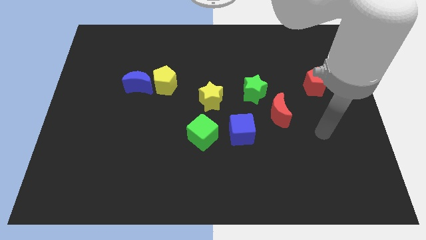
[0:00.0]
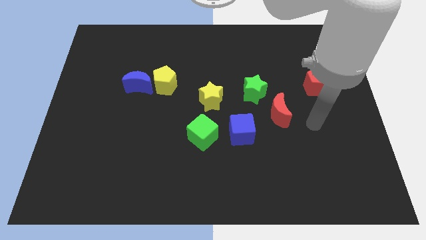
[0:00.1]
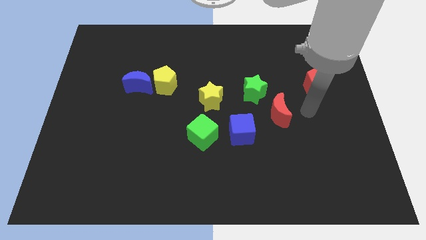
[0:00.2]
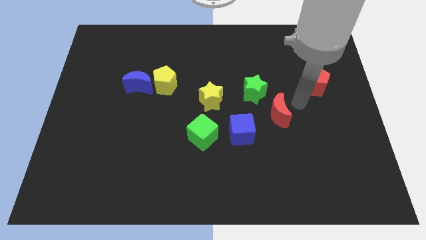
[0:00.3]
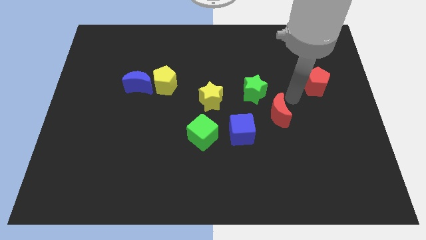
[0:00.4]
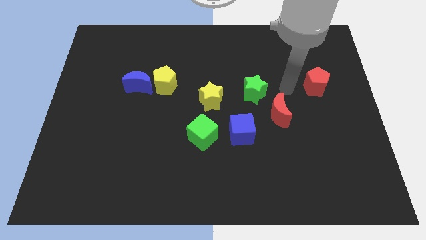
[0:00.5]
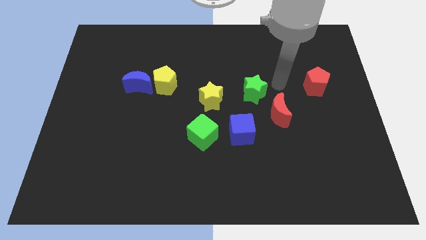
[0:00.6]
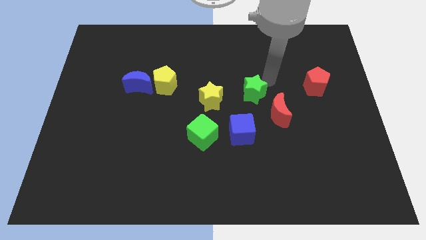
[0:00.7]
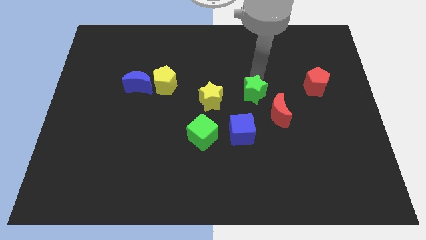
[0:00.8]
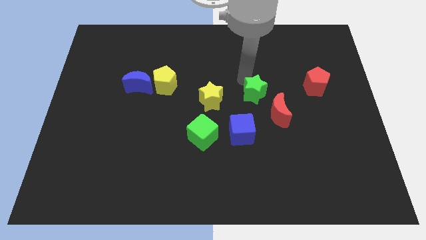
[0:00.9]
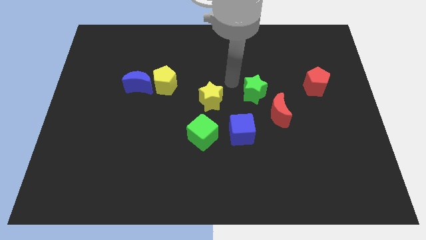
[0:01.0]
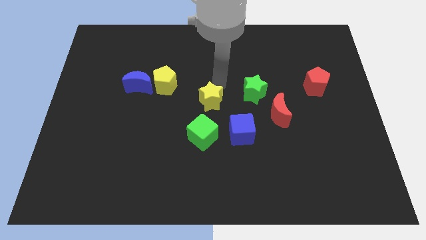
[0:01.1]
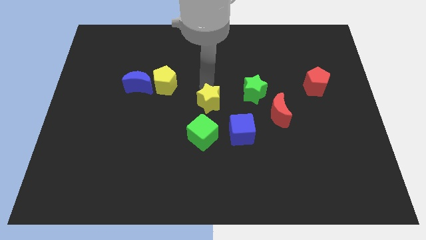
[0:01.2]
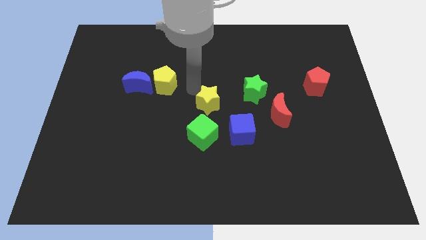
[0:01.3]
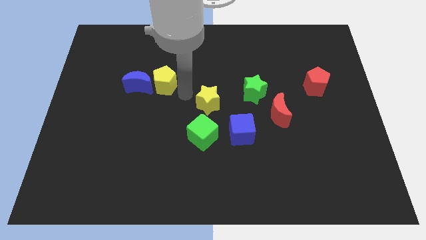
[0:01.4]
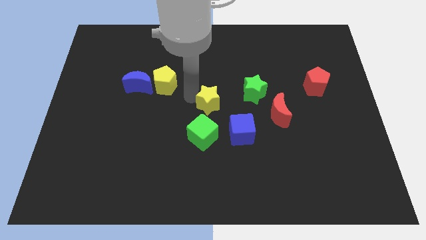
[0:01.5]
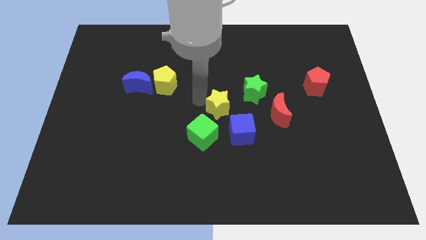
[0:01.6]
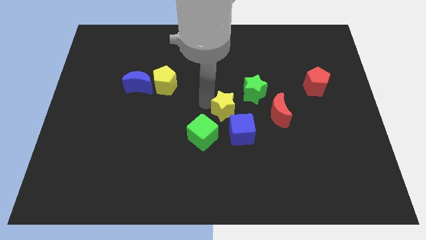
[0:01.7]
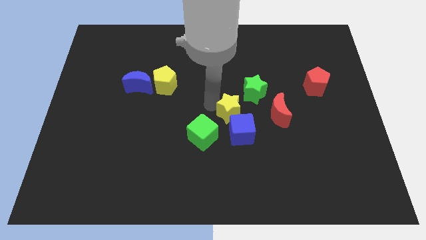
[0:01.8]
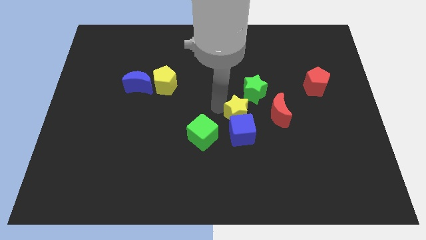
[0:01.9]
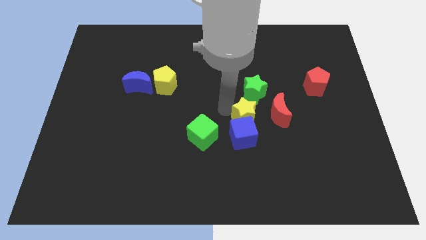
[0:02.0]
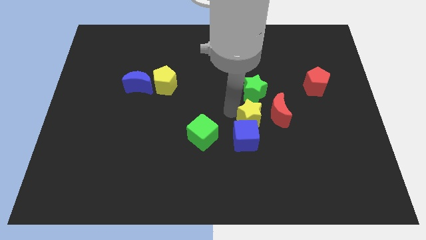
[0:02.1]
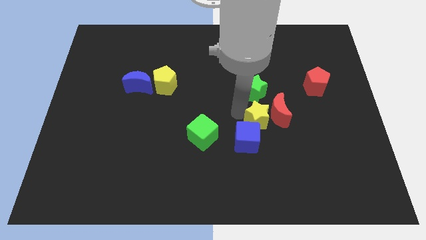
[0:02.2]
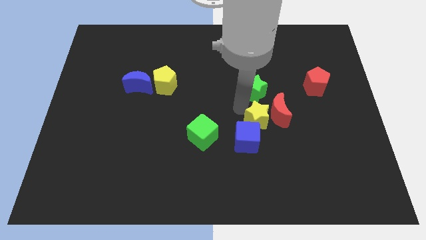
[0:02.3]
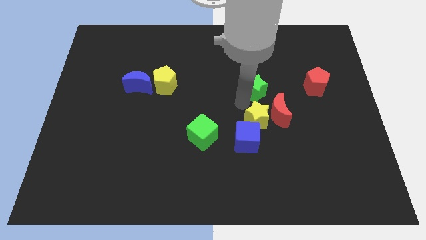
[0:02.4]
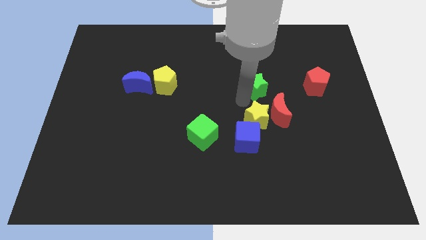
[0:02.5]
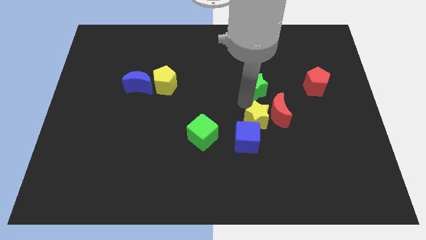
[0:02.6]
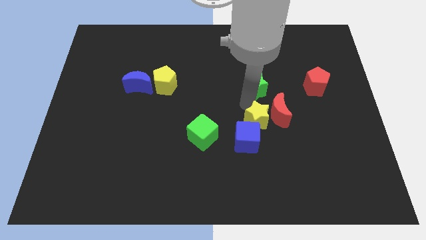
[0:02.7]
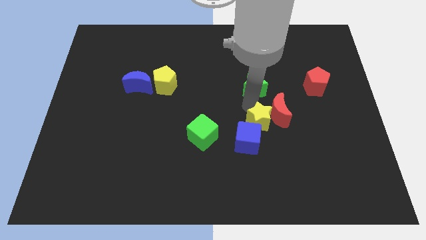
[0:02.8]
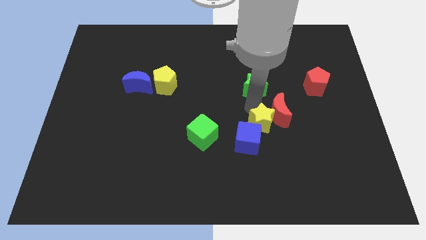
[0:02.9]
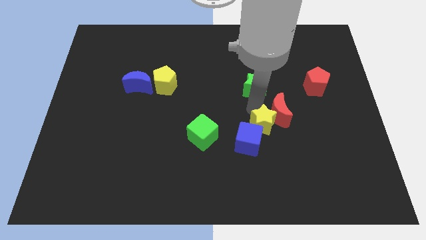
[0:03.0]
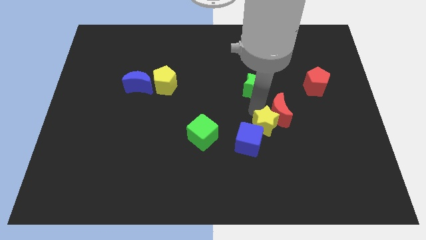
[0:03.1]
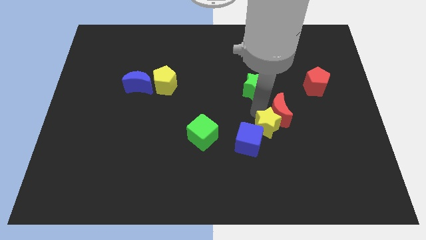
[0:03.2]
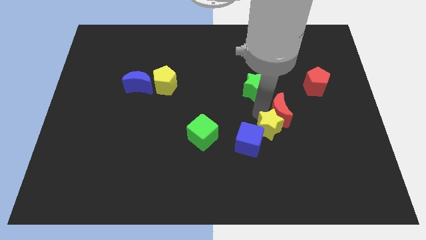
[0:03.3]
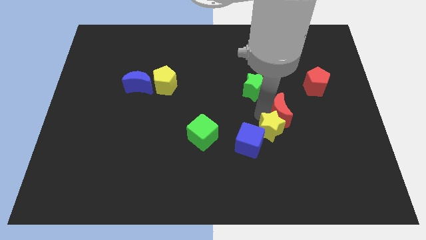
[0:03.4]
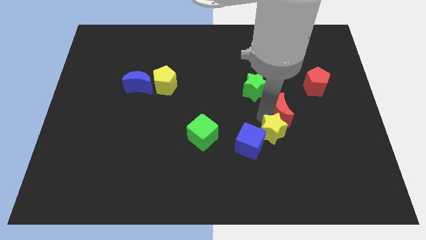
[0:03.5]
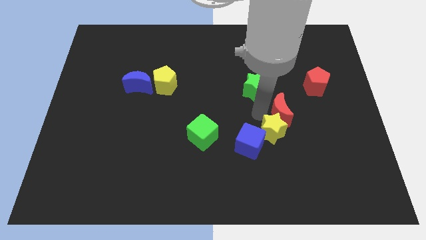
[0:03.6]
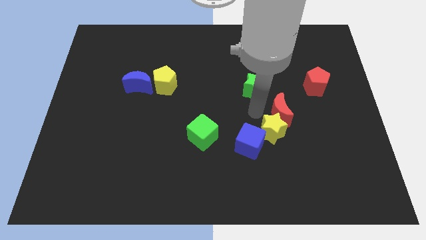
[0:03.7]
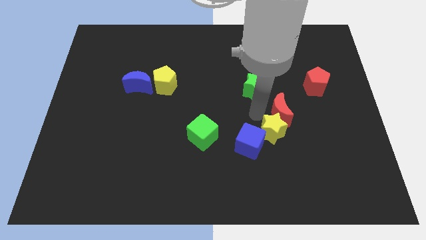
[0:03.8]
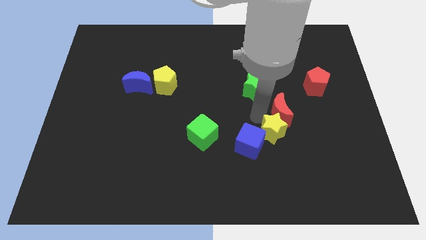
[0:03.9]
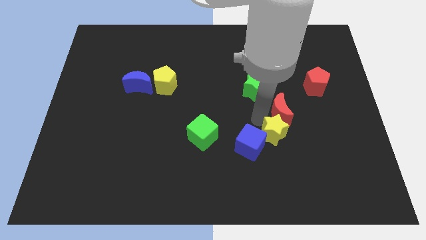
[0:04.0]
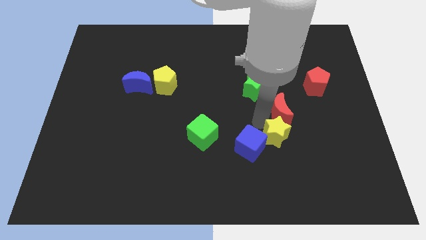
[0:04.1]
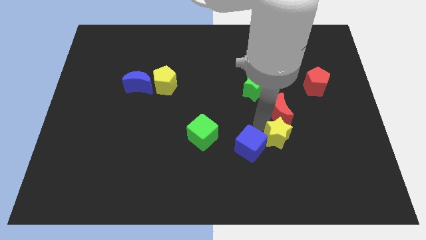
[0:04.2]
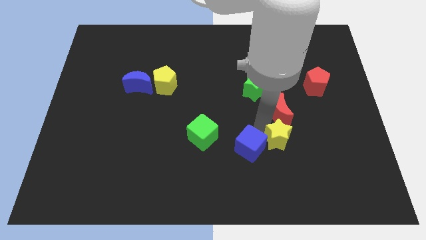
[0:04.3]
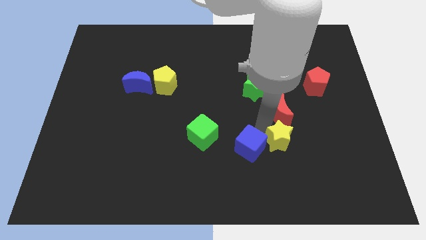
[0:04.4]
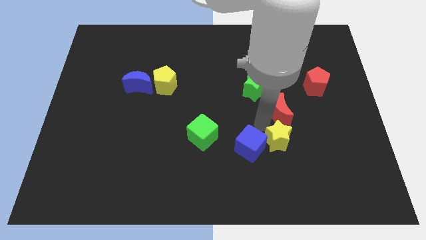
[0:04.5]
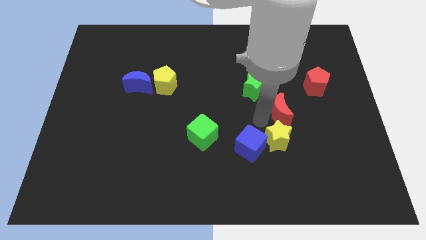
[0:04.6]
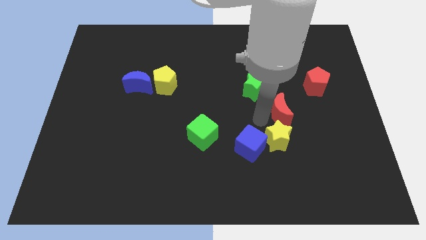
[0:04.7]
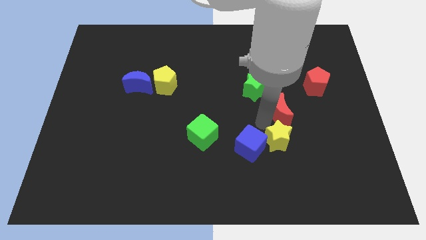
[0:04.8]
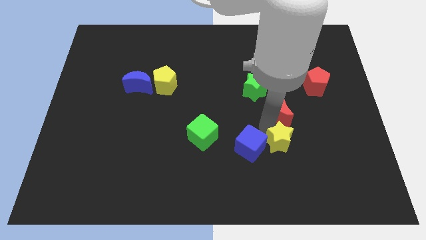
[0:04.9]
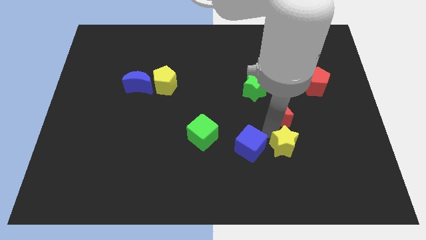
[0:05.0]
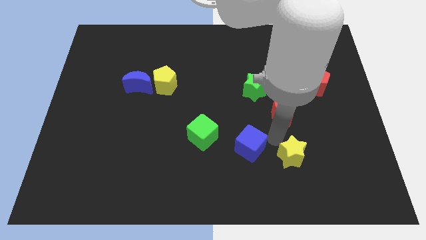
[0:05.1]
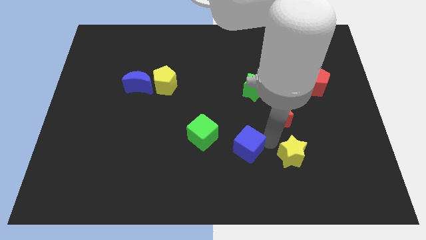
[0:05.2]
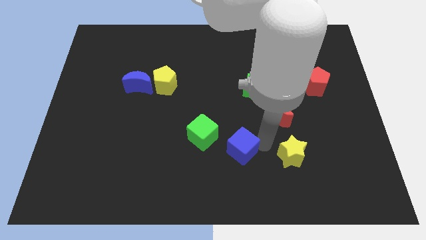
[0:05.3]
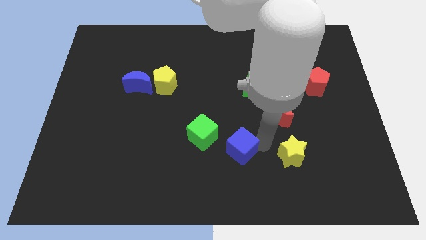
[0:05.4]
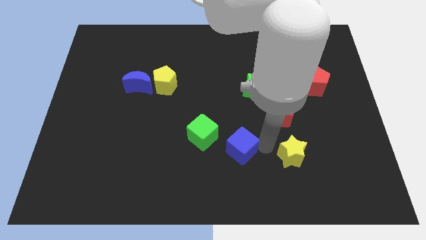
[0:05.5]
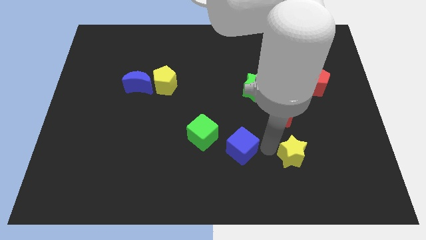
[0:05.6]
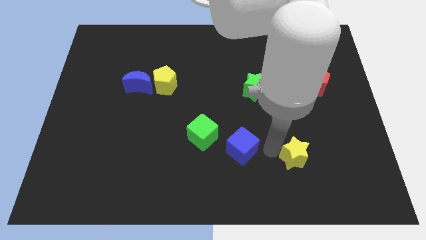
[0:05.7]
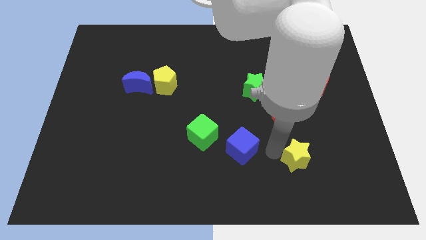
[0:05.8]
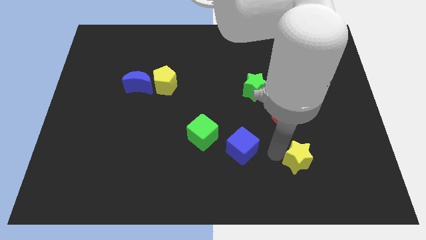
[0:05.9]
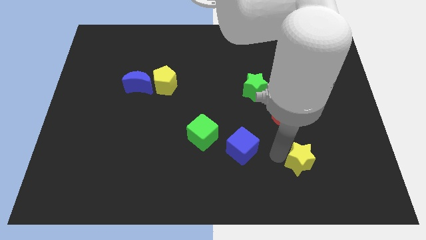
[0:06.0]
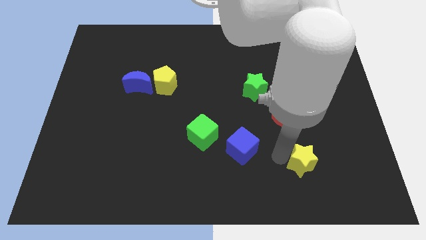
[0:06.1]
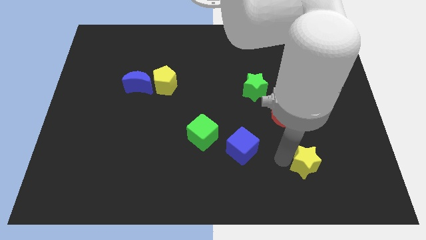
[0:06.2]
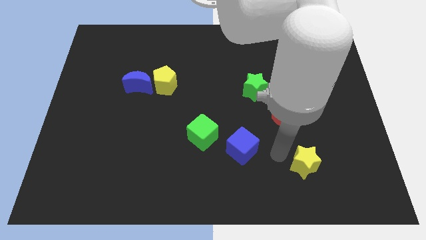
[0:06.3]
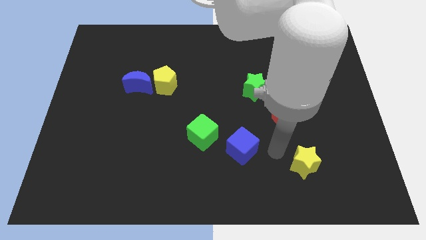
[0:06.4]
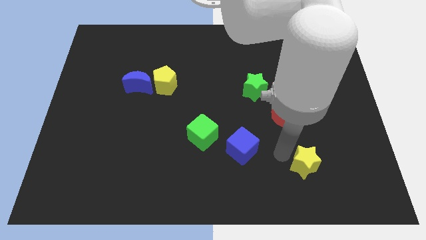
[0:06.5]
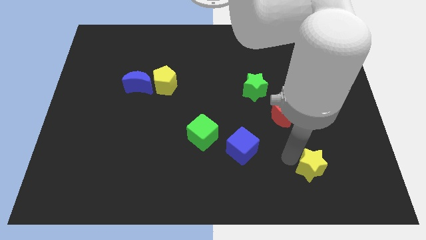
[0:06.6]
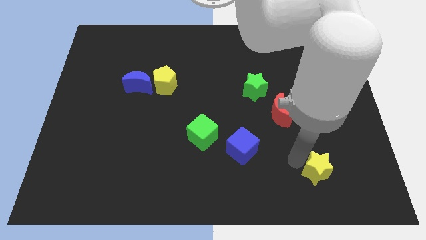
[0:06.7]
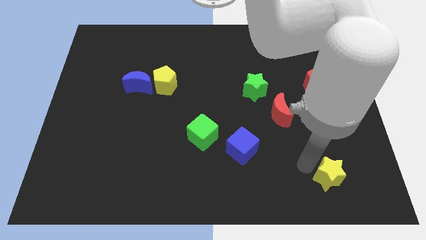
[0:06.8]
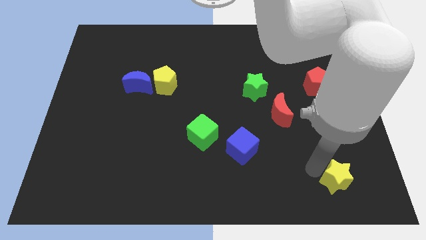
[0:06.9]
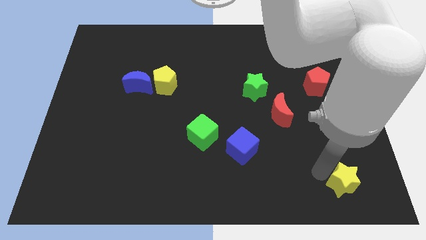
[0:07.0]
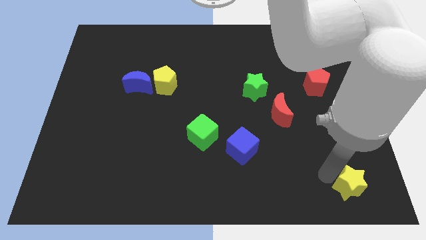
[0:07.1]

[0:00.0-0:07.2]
put the yellow star to the bottom right
